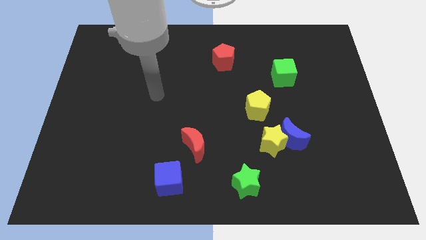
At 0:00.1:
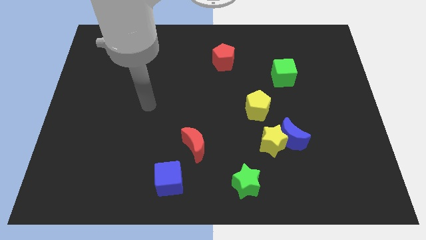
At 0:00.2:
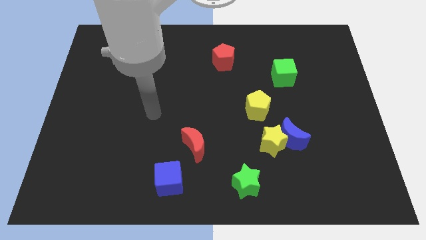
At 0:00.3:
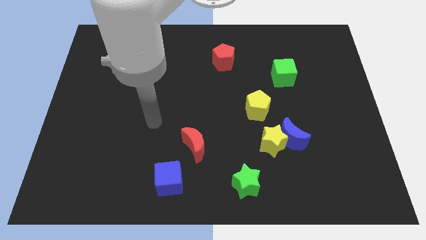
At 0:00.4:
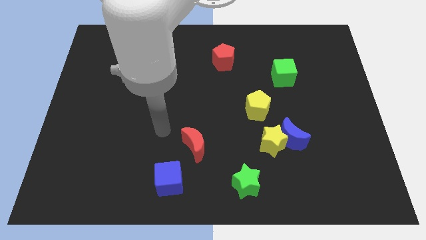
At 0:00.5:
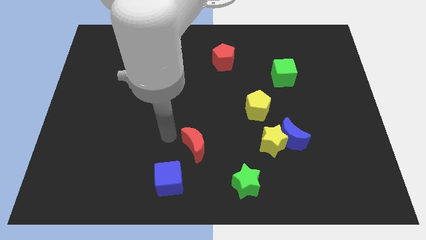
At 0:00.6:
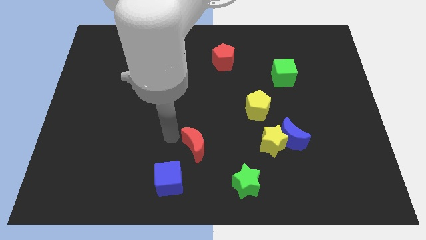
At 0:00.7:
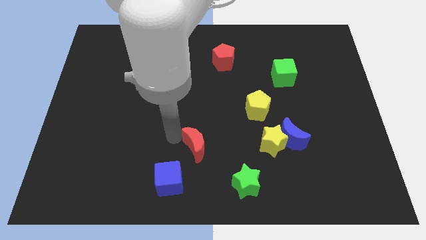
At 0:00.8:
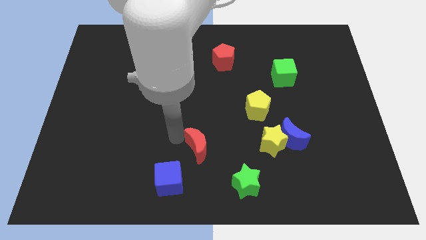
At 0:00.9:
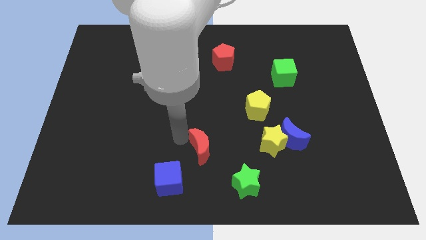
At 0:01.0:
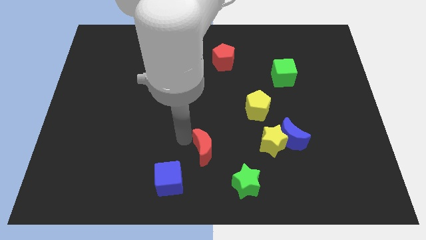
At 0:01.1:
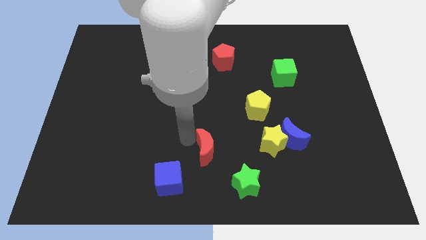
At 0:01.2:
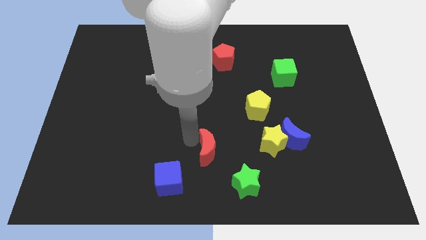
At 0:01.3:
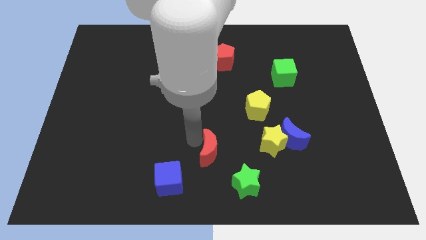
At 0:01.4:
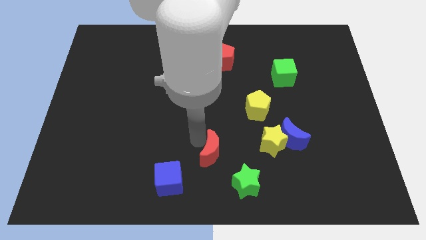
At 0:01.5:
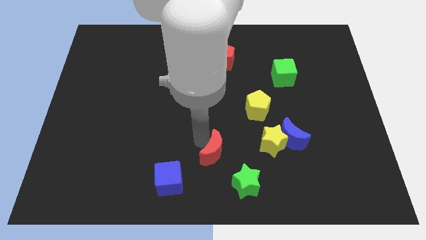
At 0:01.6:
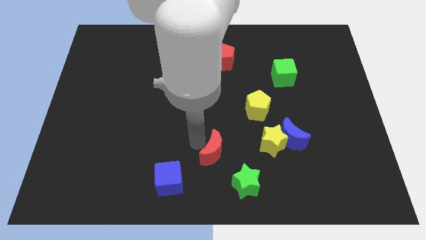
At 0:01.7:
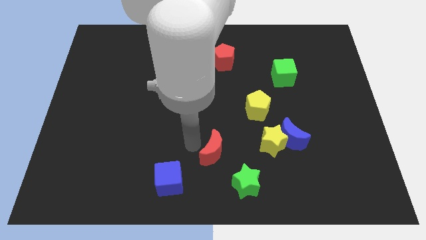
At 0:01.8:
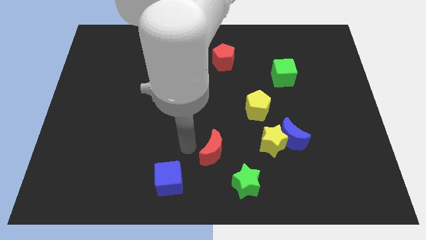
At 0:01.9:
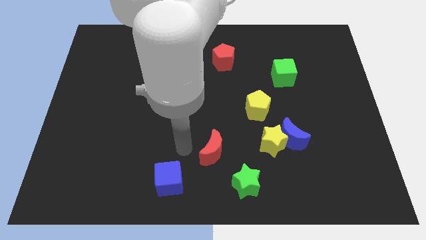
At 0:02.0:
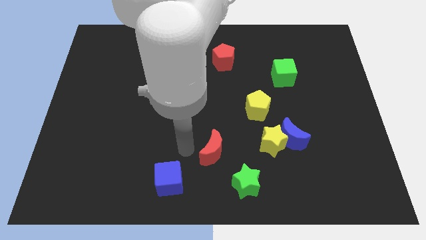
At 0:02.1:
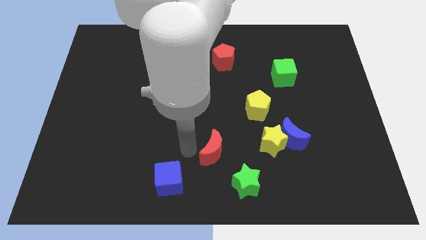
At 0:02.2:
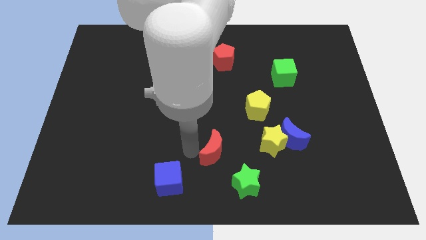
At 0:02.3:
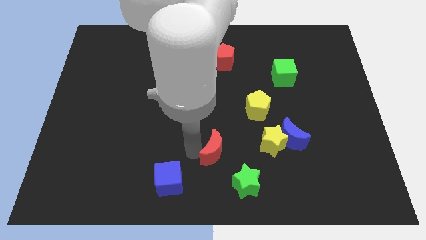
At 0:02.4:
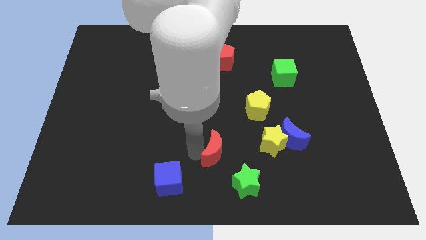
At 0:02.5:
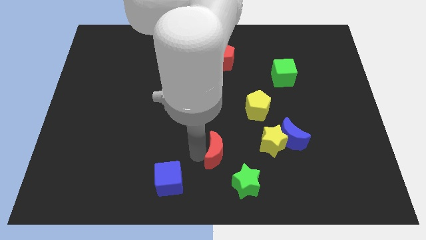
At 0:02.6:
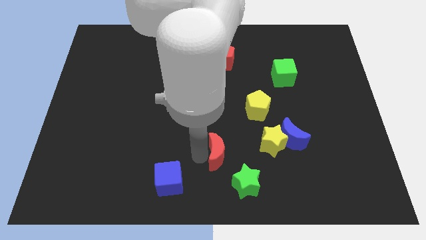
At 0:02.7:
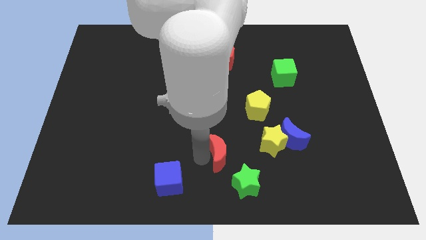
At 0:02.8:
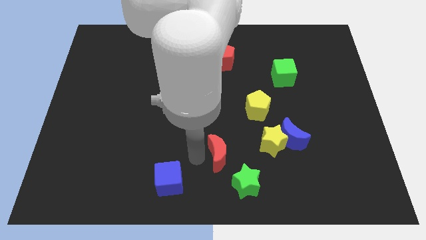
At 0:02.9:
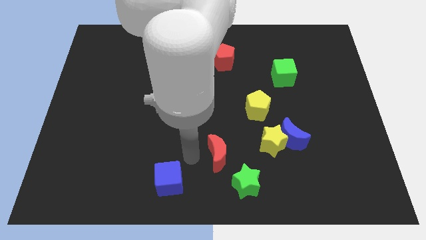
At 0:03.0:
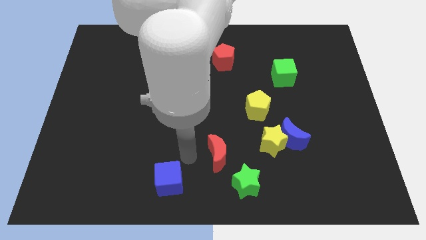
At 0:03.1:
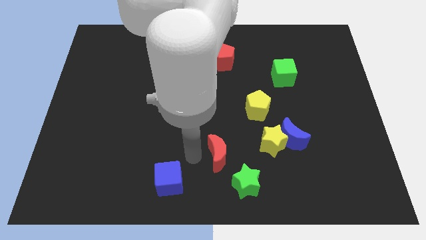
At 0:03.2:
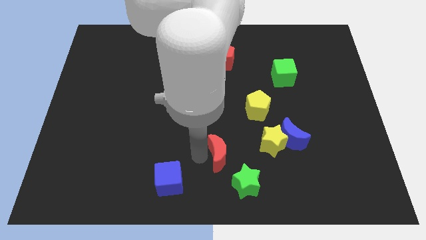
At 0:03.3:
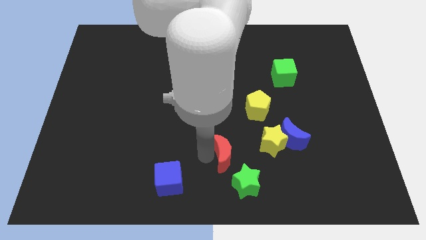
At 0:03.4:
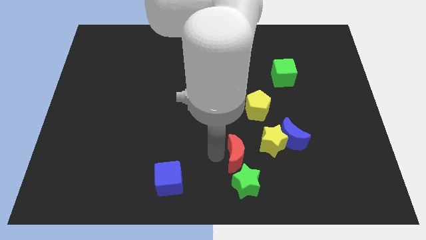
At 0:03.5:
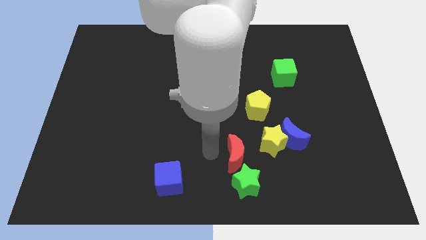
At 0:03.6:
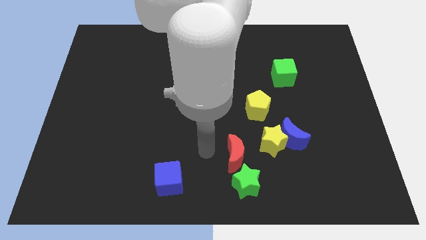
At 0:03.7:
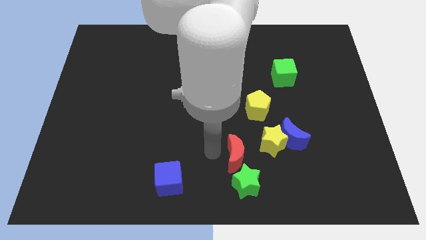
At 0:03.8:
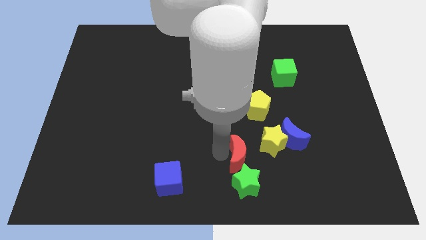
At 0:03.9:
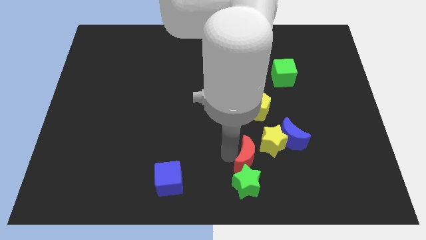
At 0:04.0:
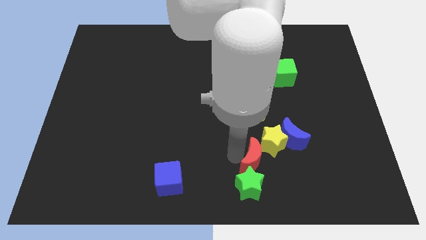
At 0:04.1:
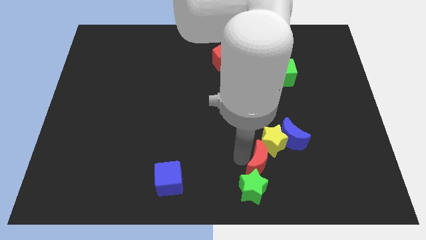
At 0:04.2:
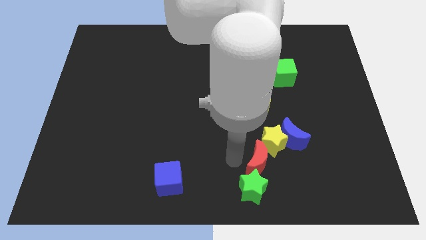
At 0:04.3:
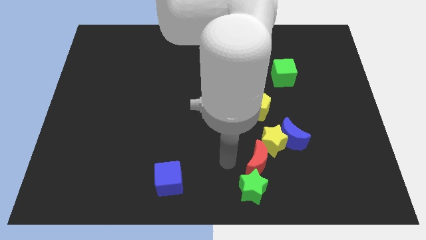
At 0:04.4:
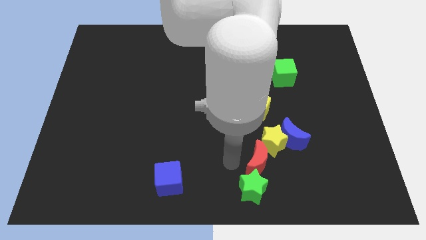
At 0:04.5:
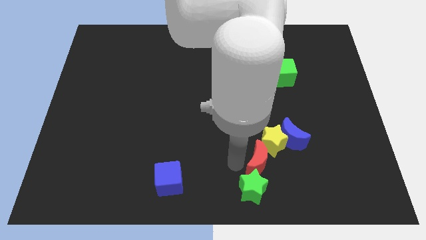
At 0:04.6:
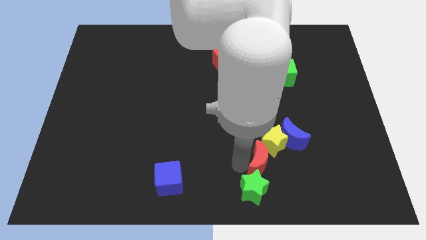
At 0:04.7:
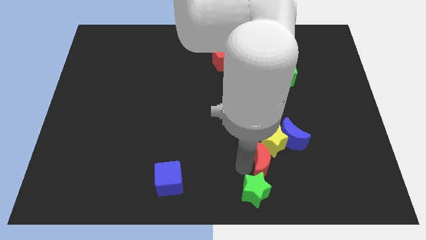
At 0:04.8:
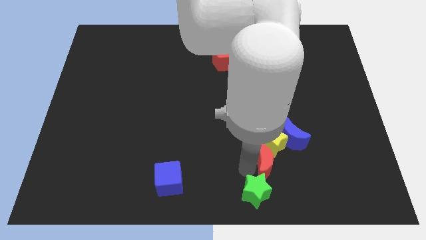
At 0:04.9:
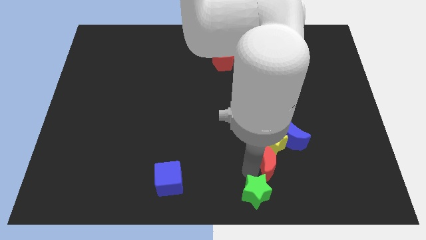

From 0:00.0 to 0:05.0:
push the red moon to the bottom right of the yellow star

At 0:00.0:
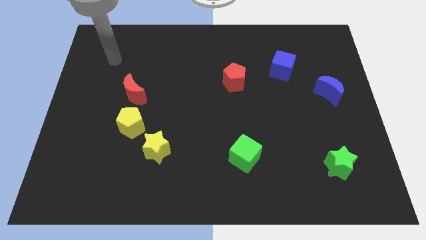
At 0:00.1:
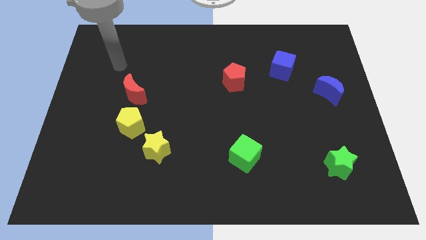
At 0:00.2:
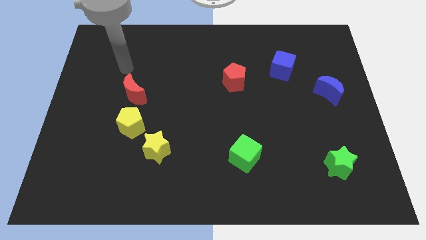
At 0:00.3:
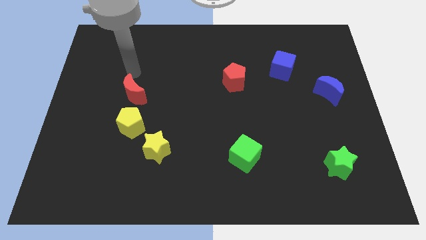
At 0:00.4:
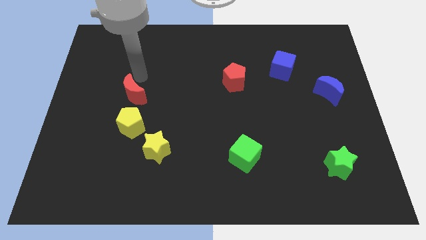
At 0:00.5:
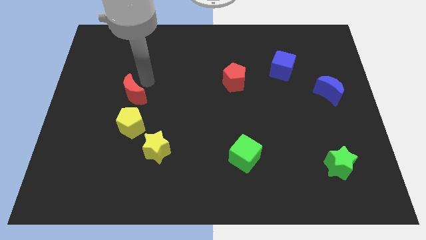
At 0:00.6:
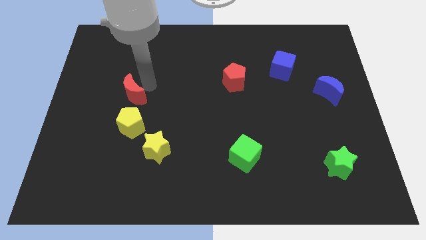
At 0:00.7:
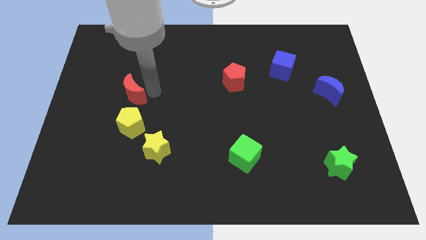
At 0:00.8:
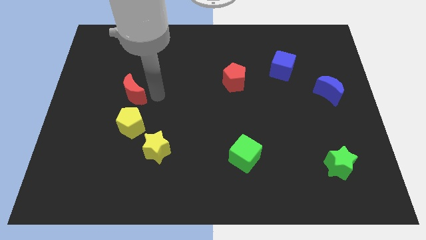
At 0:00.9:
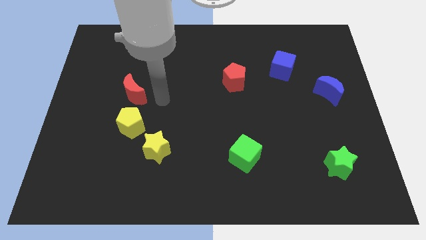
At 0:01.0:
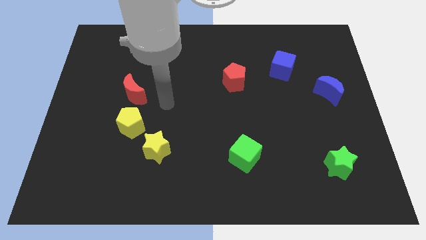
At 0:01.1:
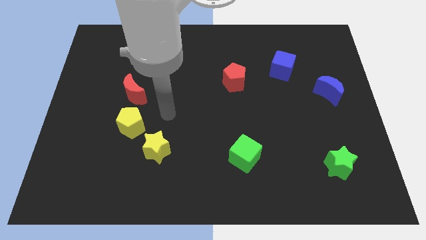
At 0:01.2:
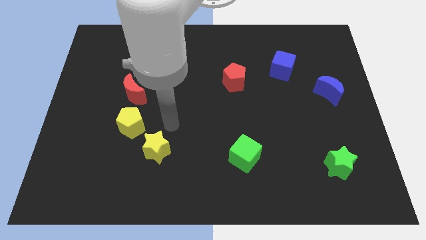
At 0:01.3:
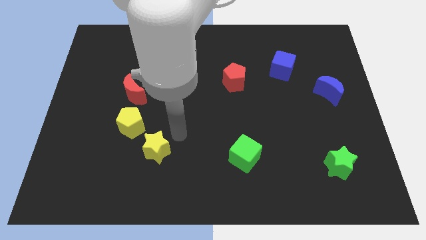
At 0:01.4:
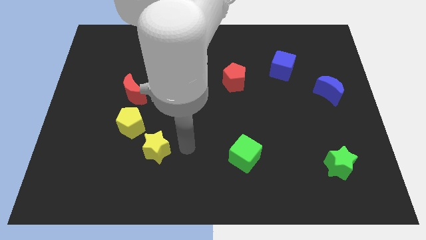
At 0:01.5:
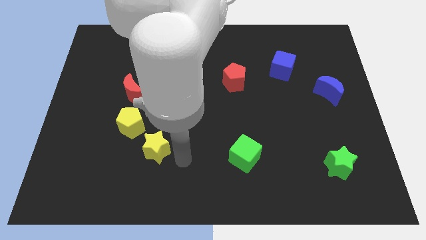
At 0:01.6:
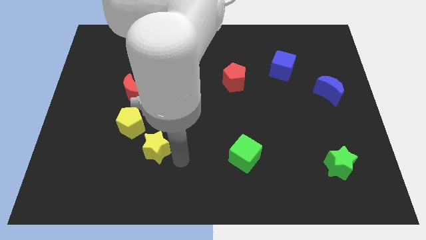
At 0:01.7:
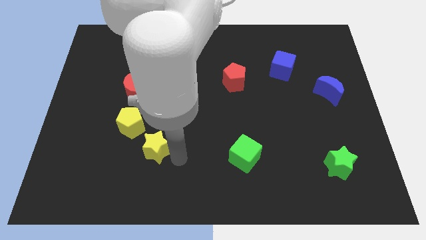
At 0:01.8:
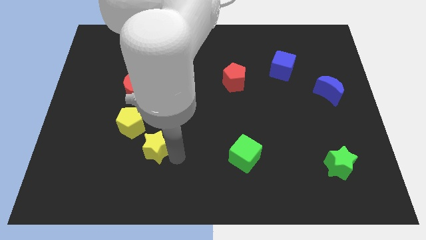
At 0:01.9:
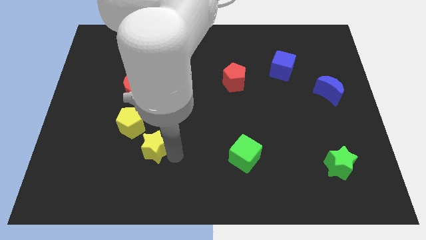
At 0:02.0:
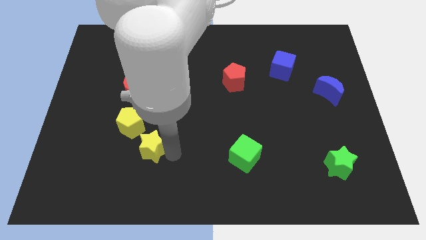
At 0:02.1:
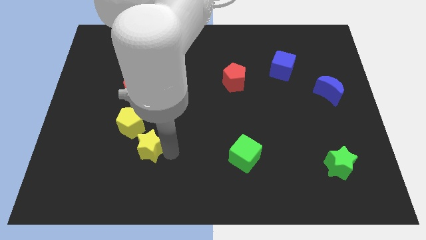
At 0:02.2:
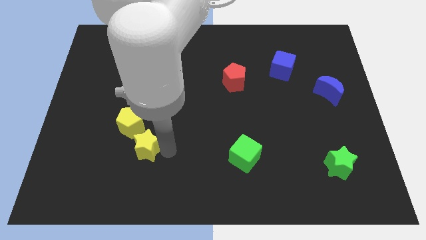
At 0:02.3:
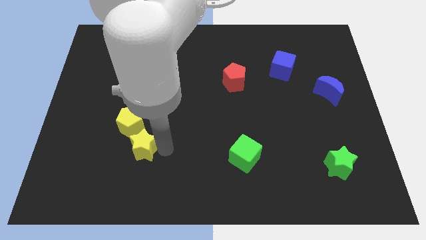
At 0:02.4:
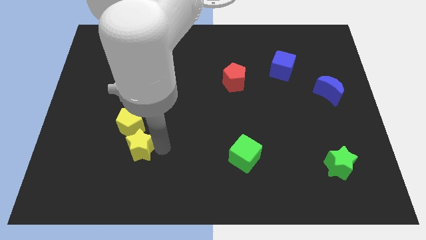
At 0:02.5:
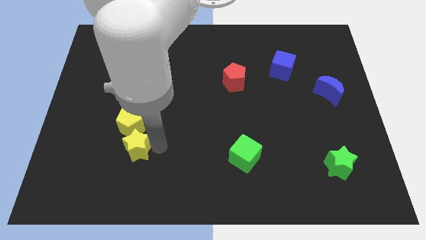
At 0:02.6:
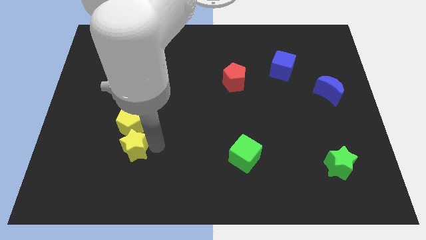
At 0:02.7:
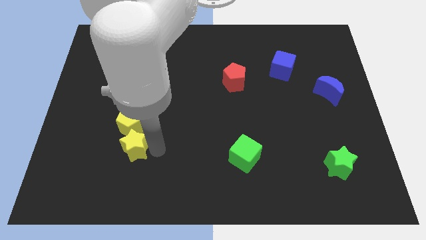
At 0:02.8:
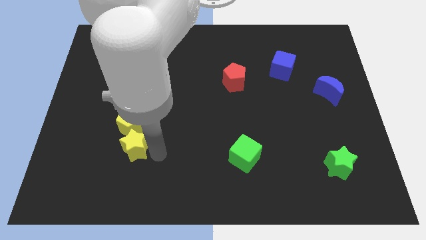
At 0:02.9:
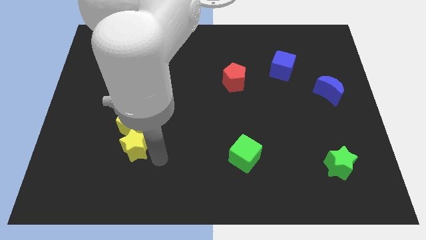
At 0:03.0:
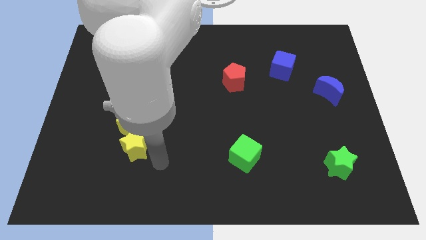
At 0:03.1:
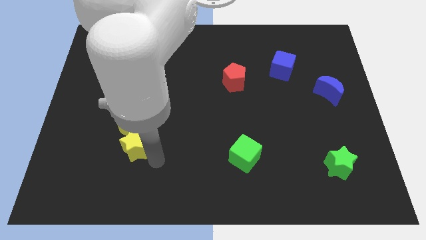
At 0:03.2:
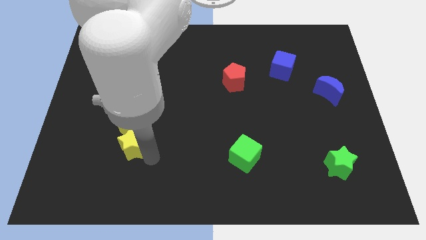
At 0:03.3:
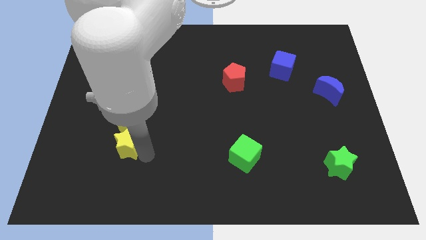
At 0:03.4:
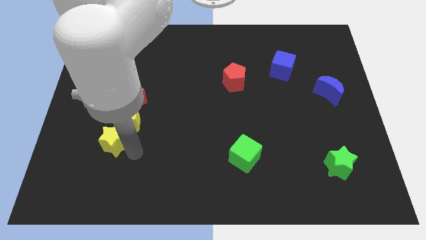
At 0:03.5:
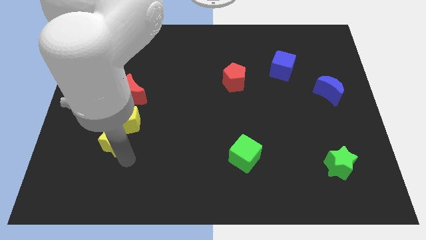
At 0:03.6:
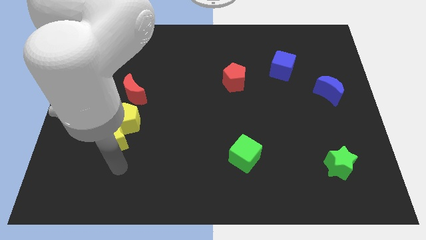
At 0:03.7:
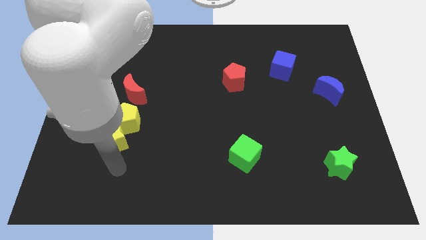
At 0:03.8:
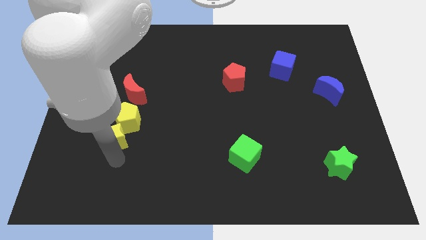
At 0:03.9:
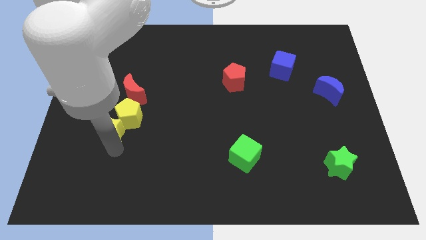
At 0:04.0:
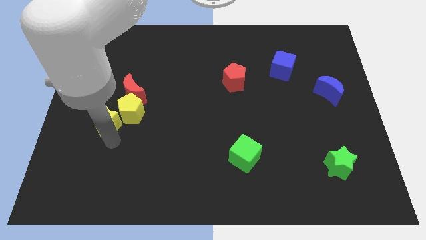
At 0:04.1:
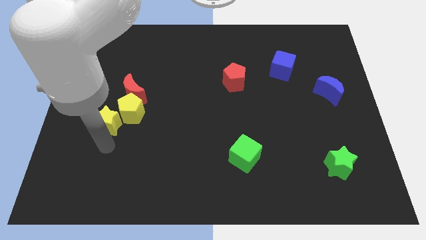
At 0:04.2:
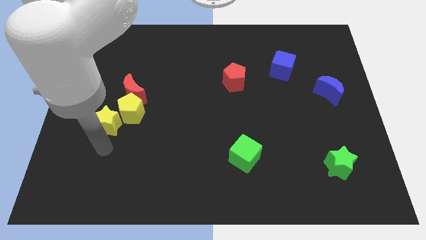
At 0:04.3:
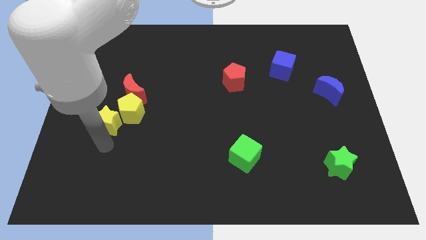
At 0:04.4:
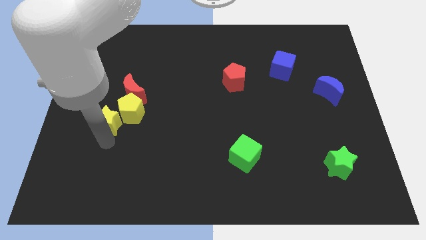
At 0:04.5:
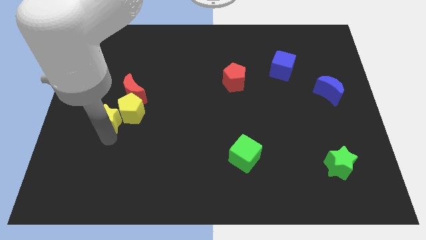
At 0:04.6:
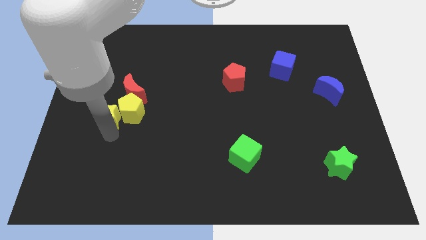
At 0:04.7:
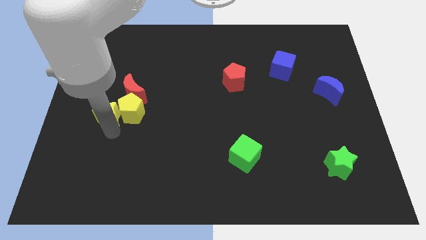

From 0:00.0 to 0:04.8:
push the yellow star diagonally up and to the left of the yellow pentagon
